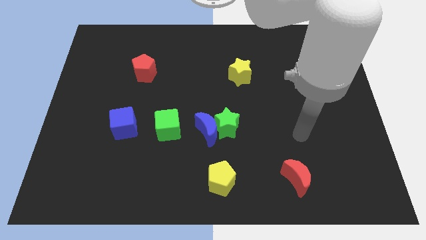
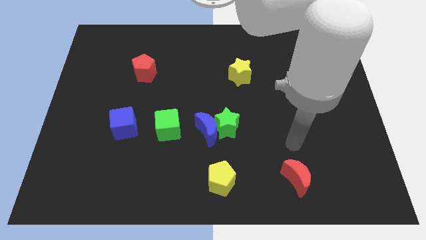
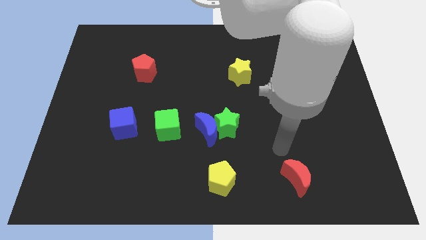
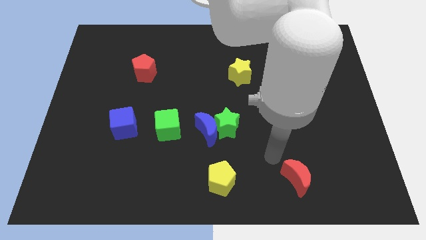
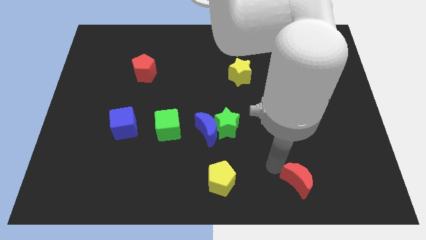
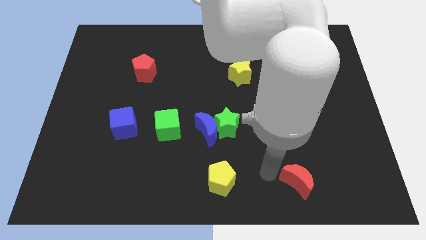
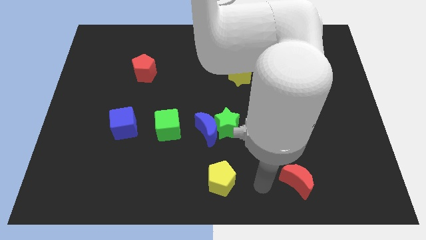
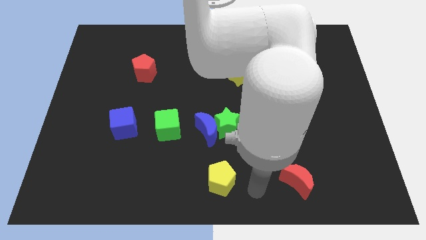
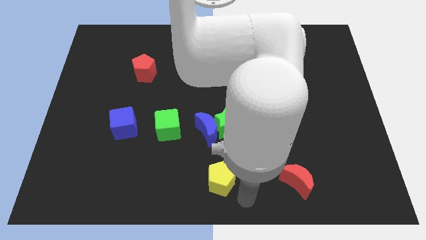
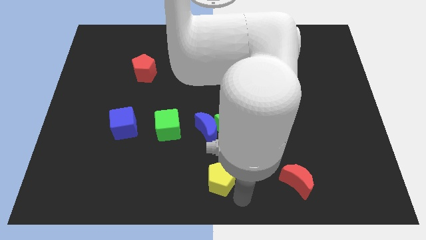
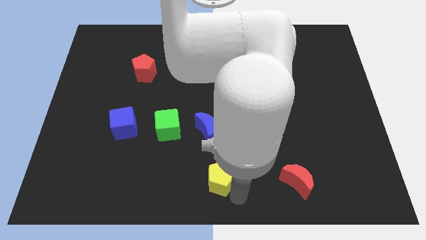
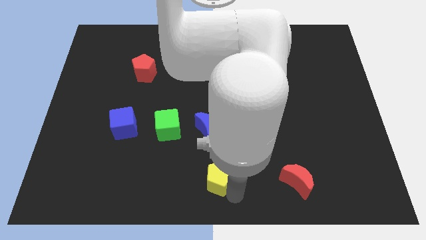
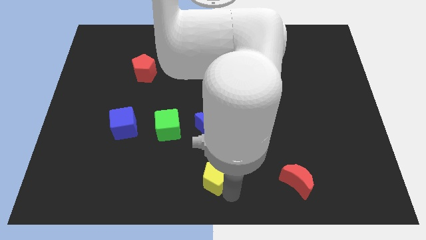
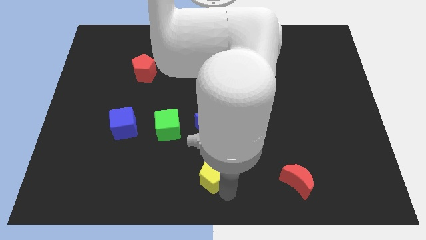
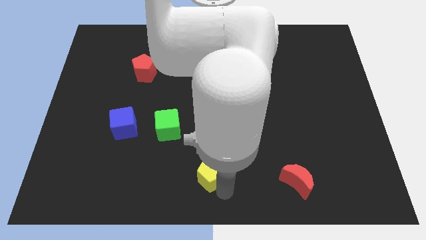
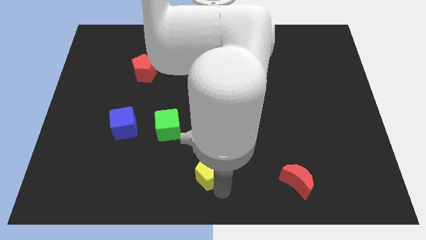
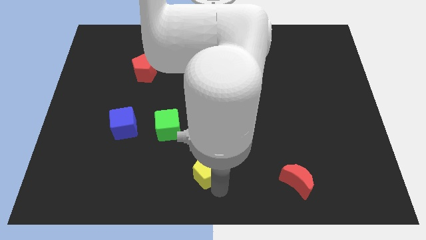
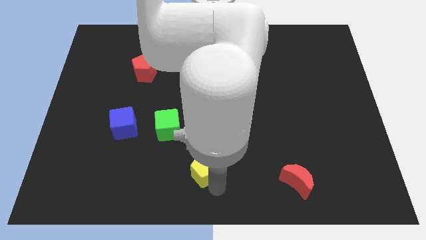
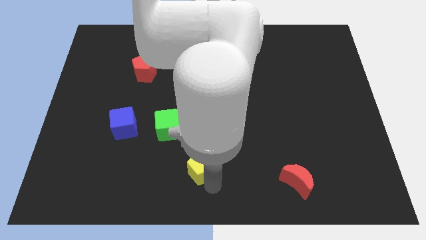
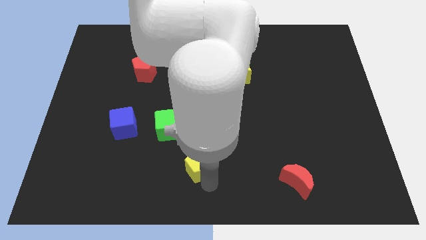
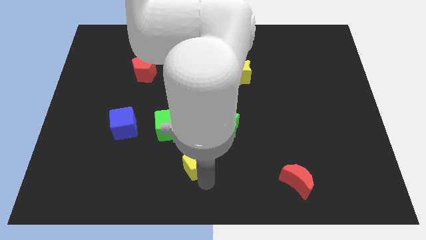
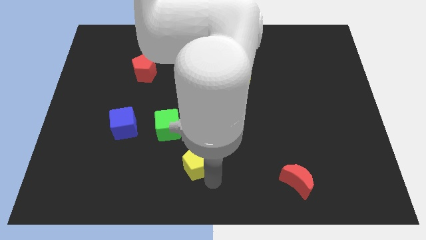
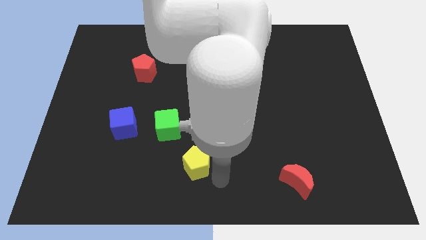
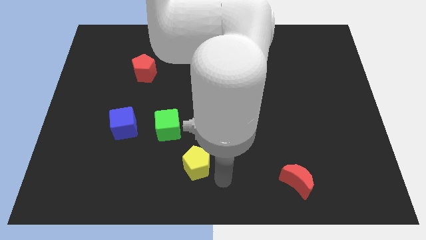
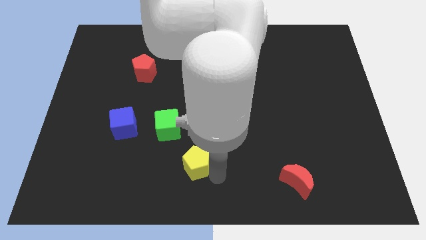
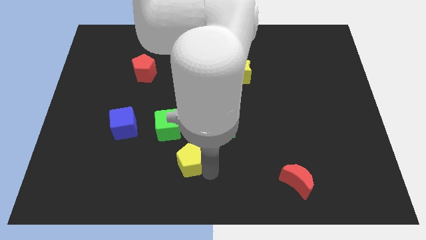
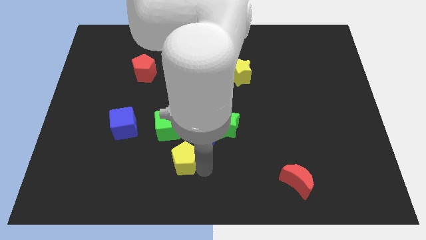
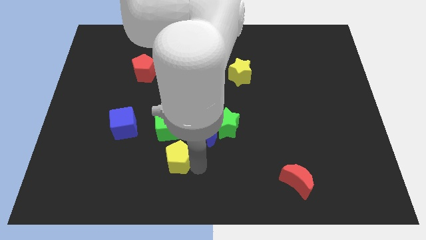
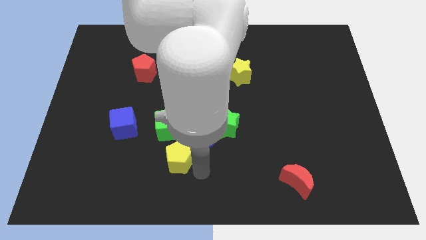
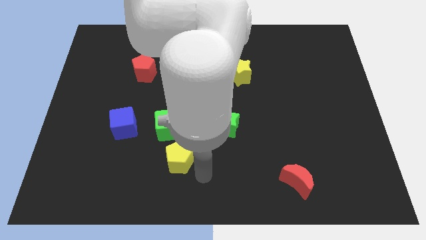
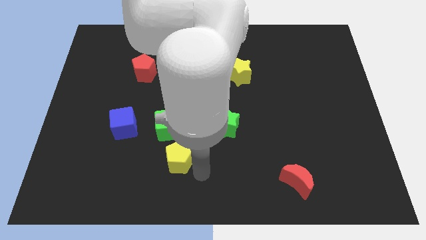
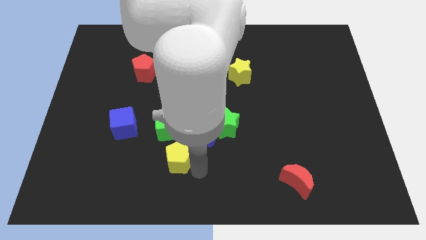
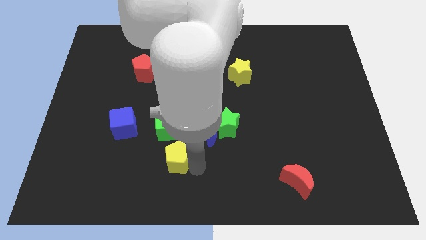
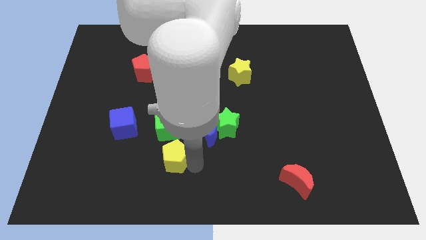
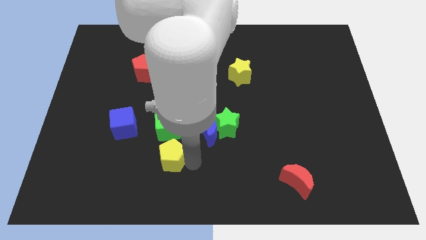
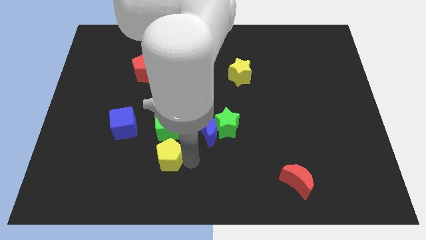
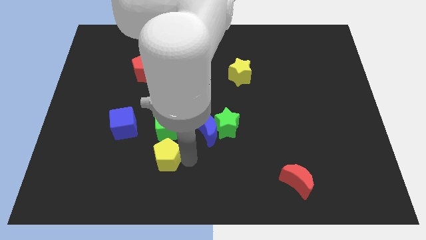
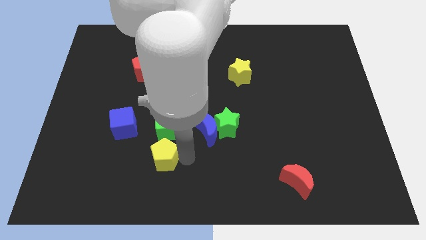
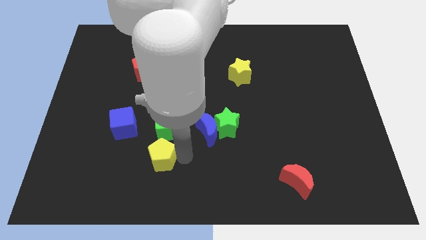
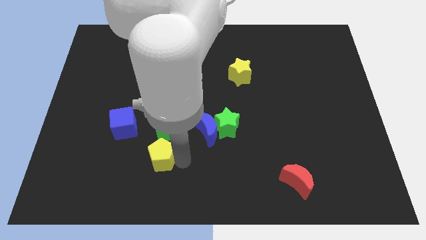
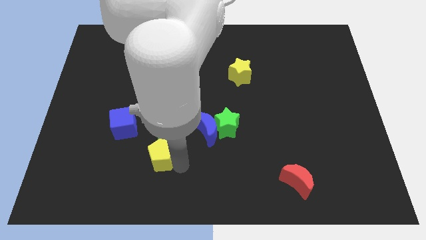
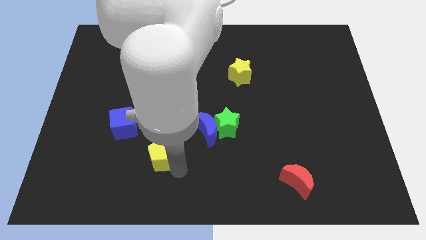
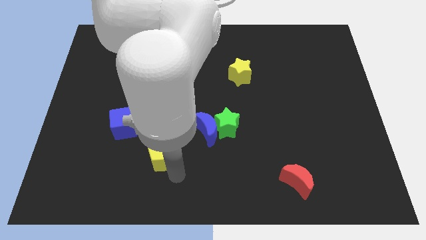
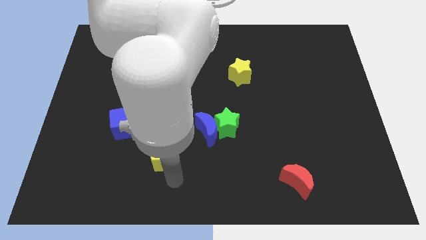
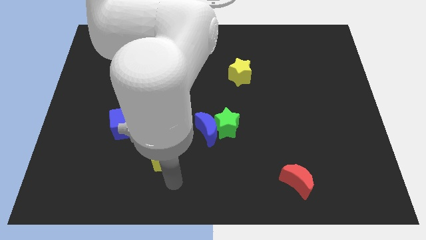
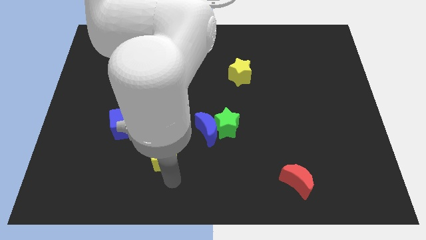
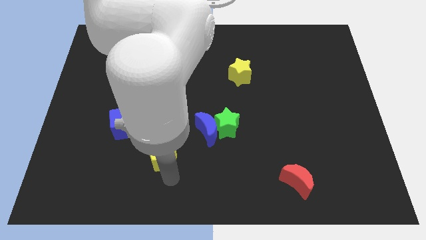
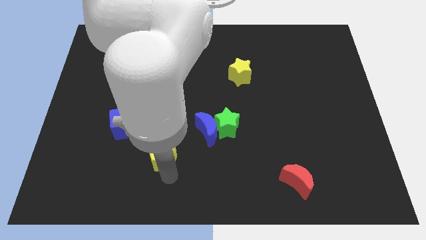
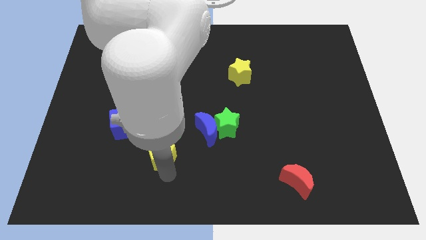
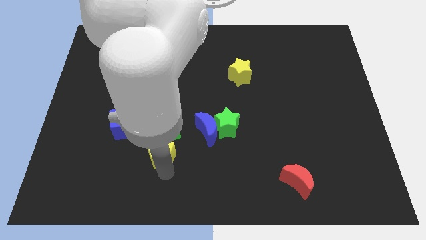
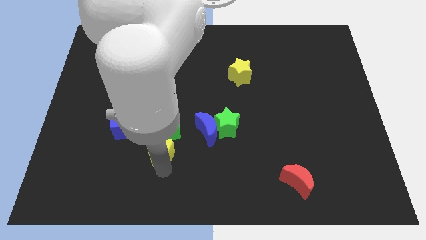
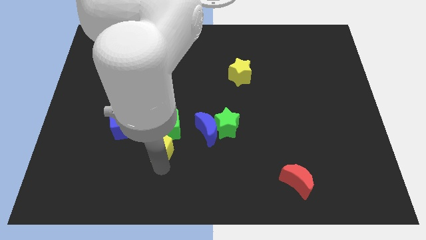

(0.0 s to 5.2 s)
move the yellow pentagon left of the blue moon

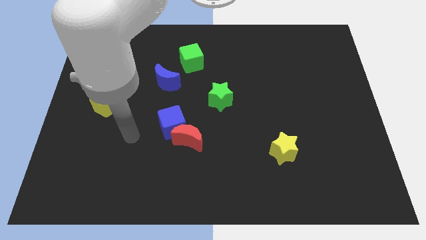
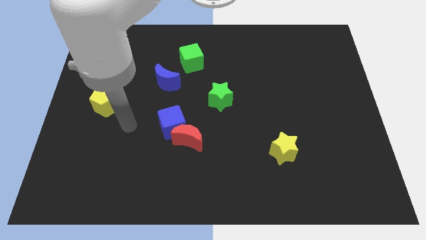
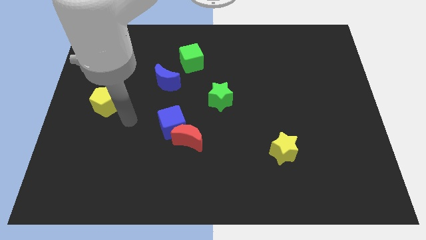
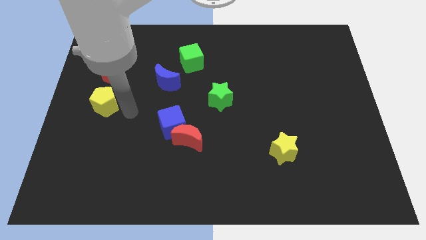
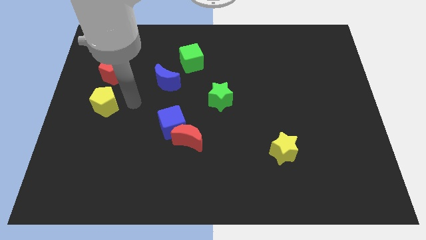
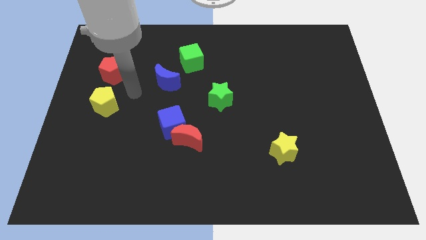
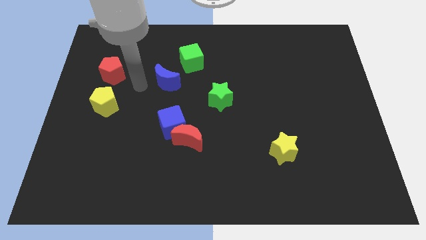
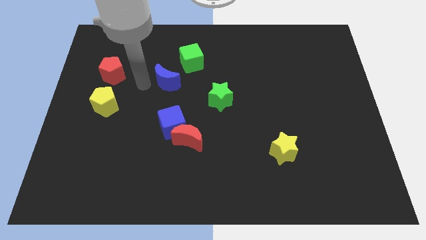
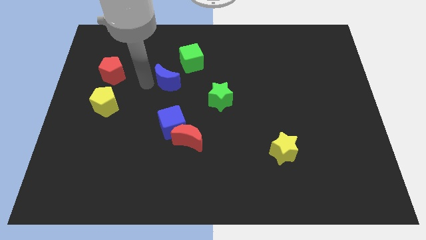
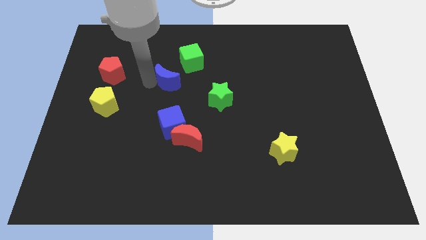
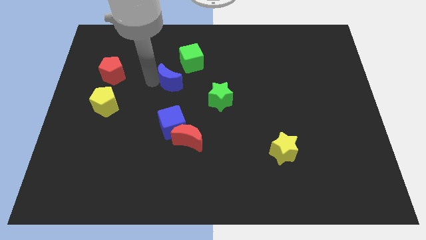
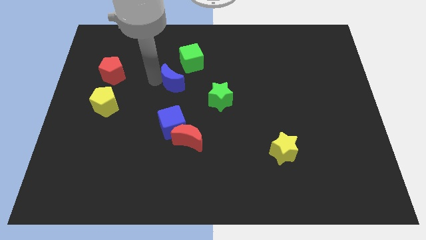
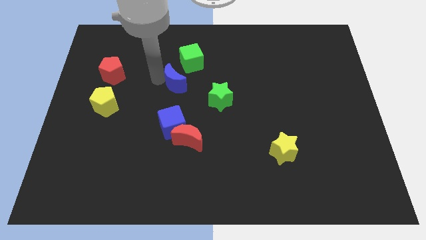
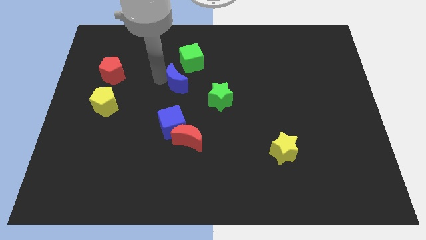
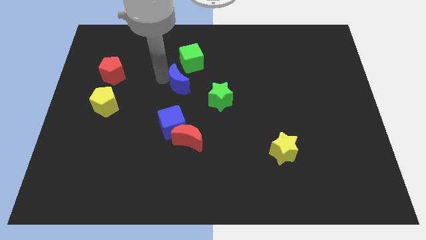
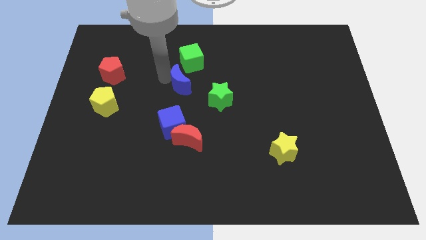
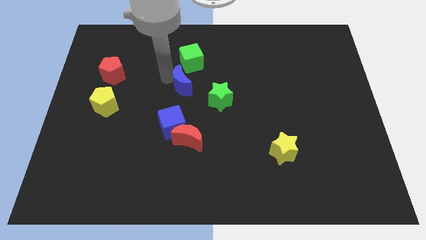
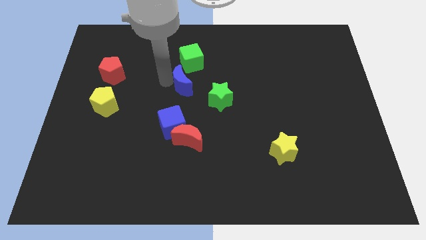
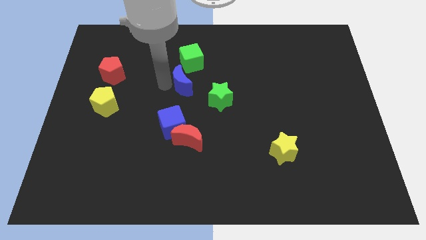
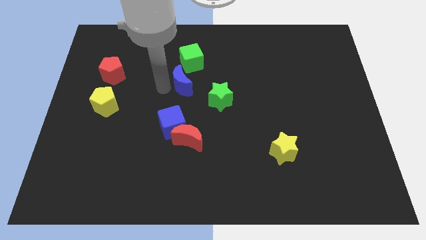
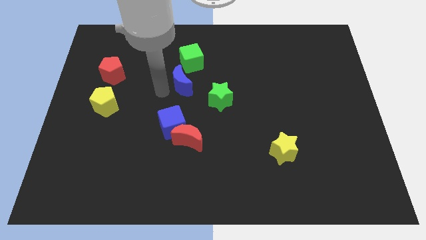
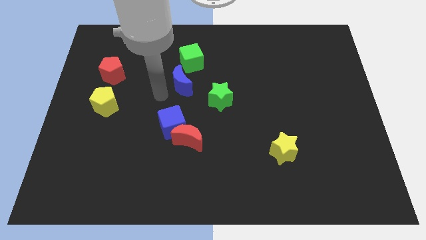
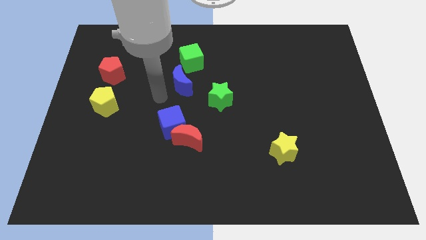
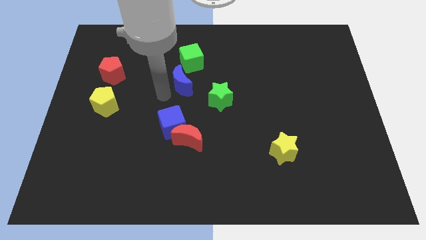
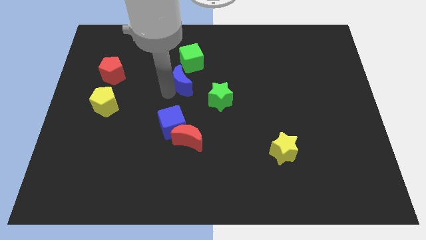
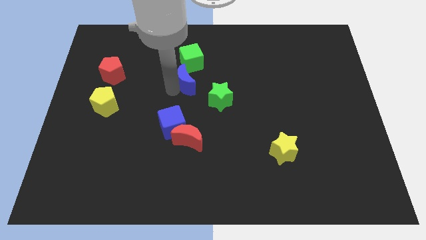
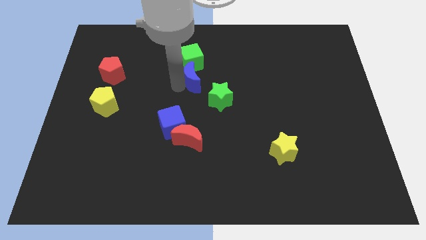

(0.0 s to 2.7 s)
put the blue moon to the bottom right of the green cube
